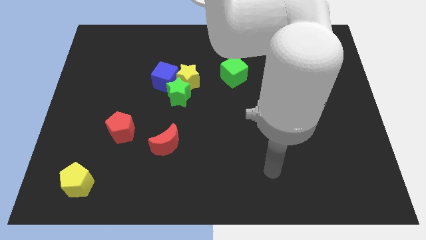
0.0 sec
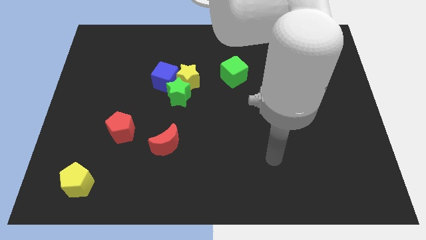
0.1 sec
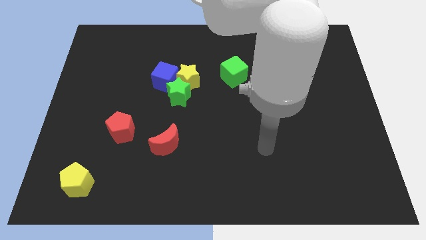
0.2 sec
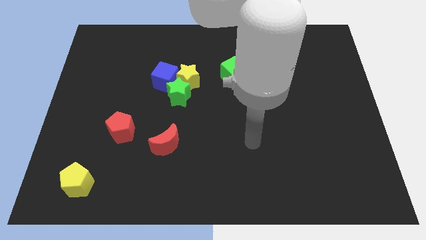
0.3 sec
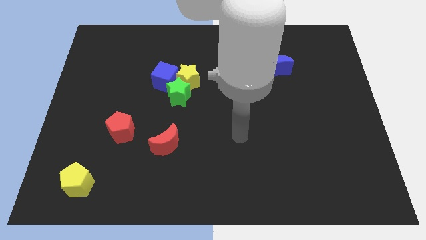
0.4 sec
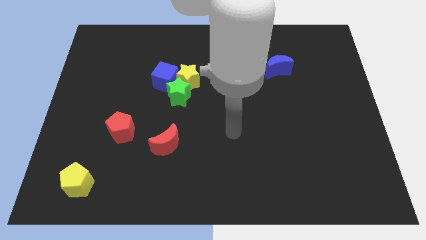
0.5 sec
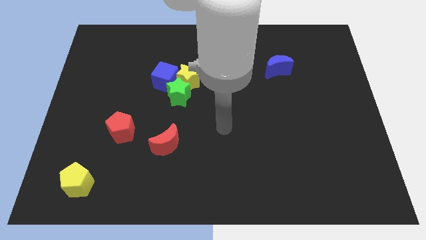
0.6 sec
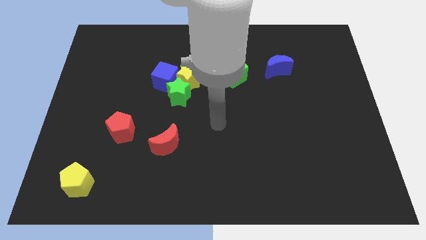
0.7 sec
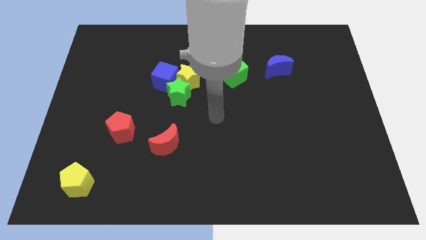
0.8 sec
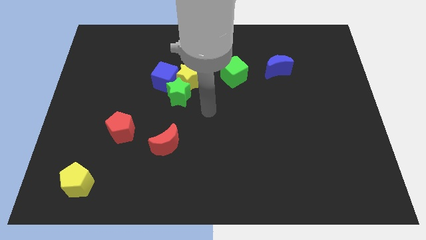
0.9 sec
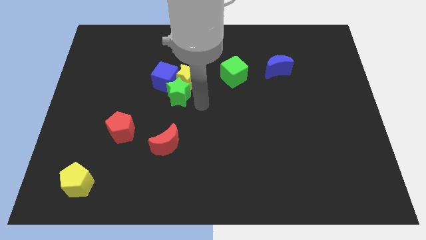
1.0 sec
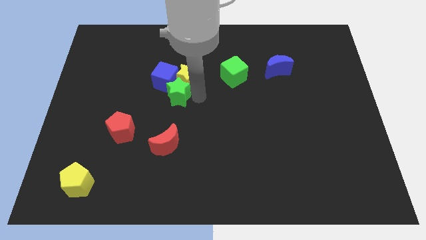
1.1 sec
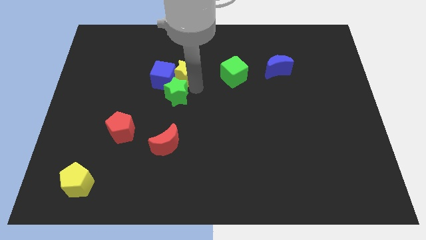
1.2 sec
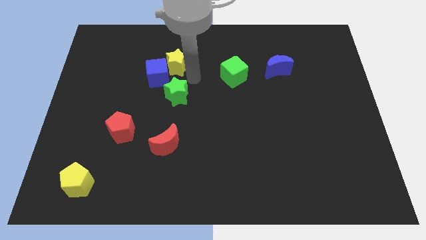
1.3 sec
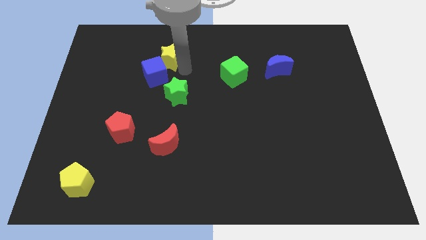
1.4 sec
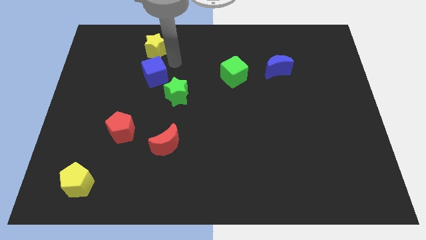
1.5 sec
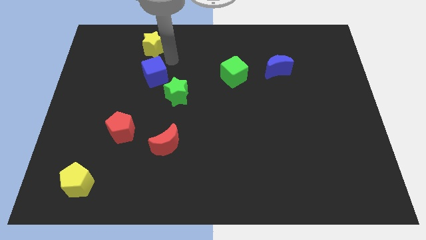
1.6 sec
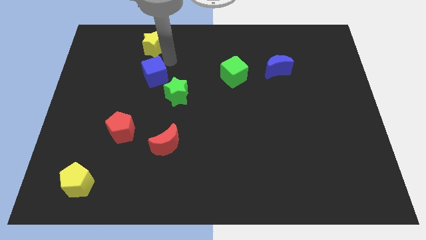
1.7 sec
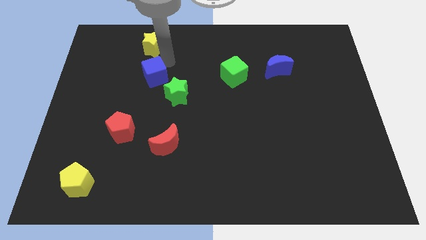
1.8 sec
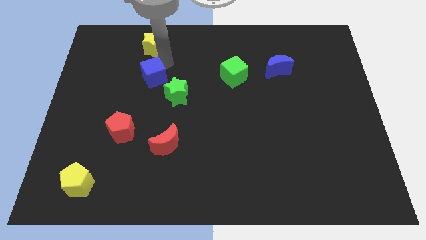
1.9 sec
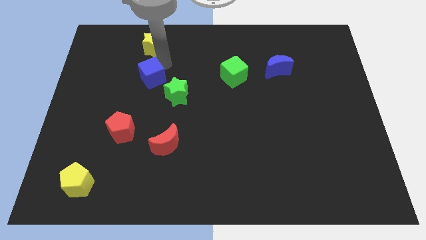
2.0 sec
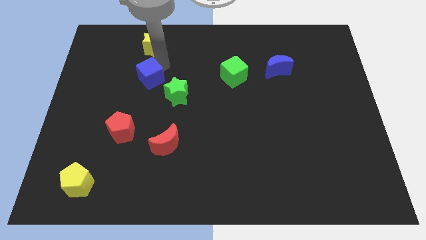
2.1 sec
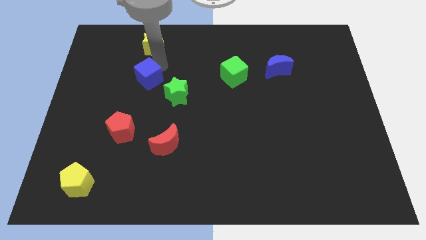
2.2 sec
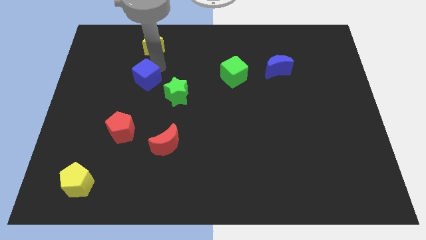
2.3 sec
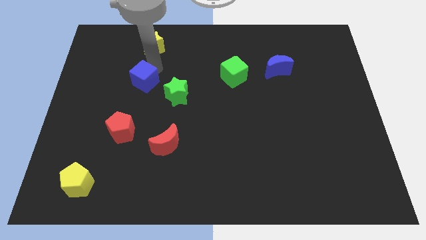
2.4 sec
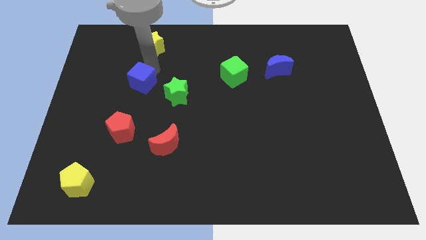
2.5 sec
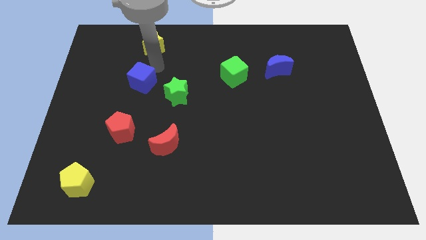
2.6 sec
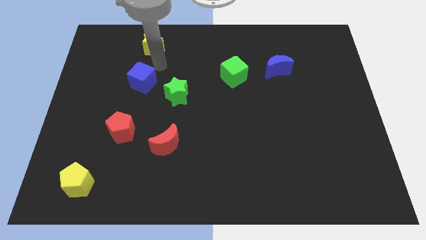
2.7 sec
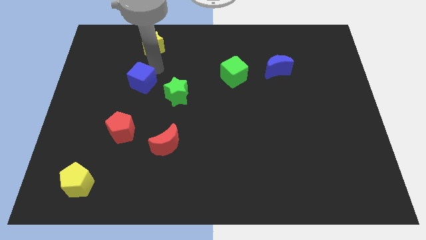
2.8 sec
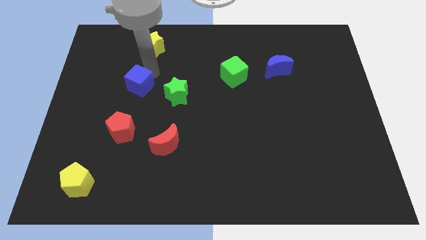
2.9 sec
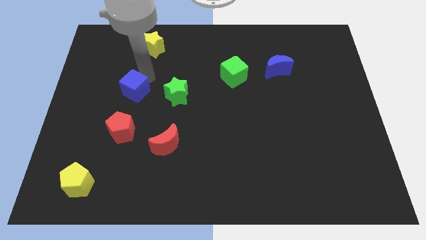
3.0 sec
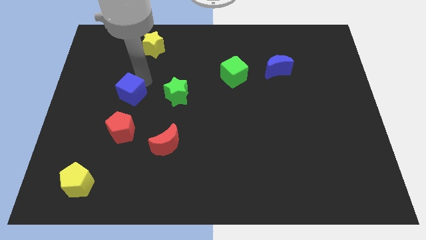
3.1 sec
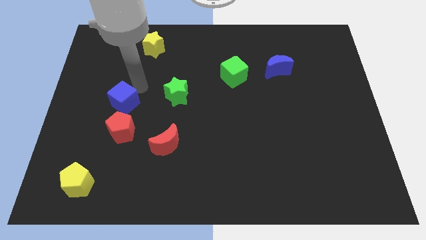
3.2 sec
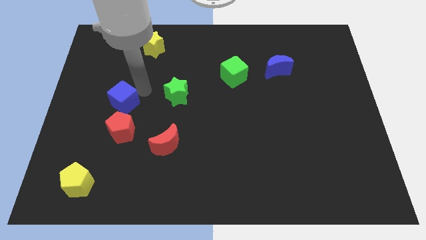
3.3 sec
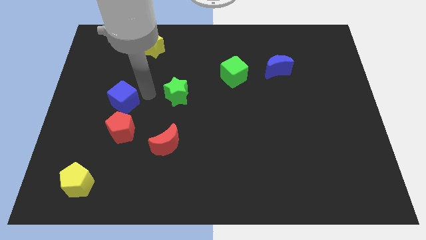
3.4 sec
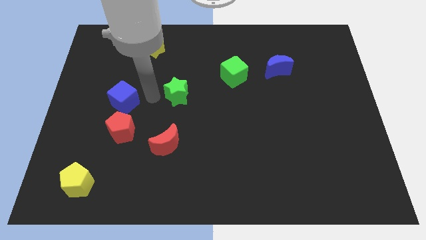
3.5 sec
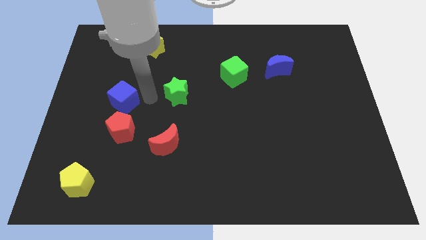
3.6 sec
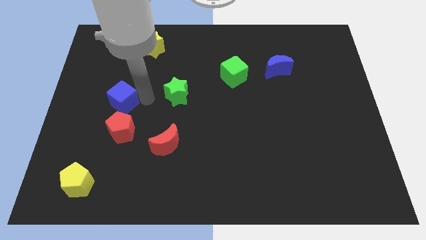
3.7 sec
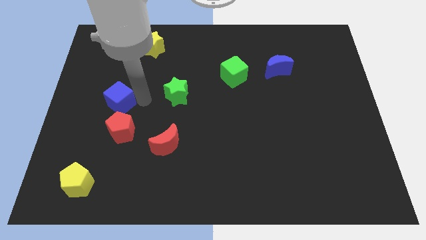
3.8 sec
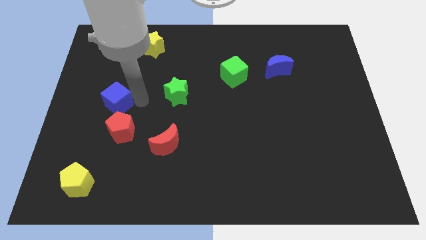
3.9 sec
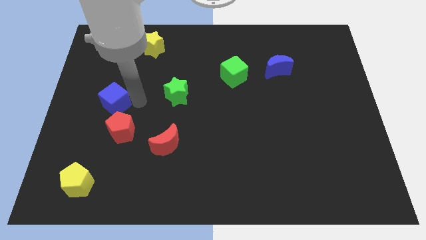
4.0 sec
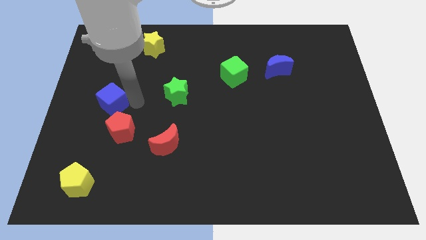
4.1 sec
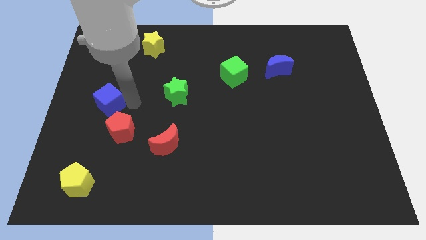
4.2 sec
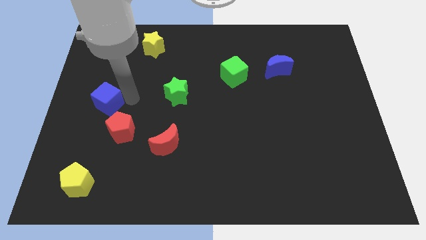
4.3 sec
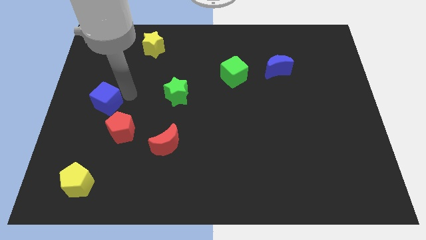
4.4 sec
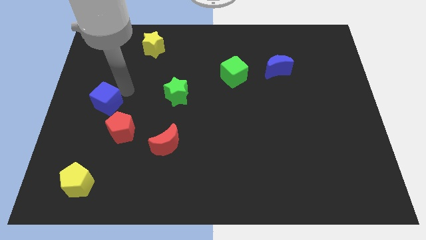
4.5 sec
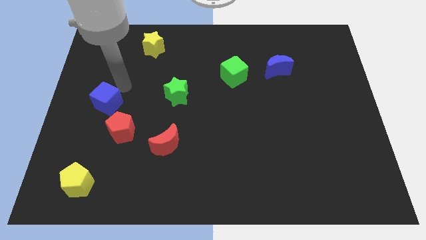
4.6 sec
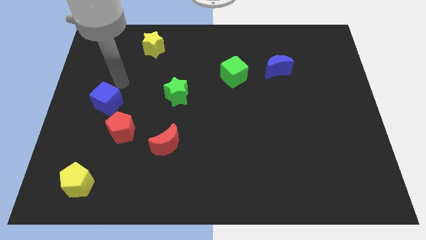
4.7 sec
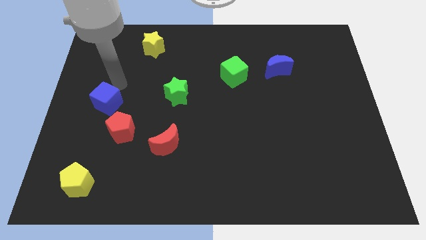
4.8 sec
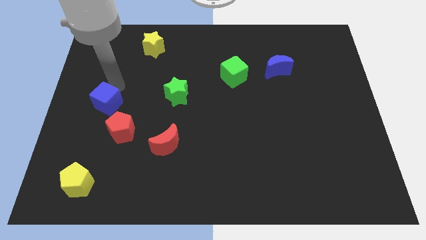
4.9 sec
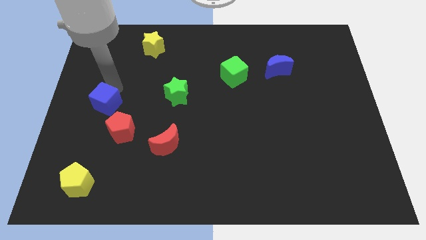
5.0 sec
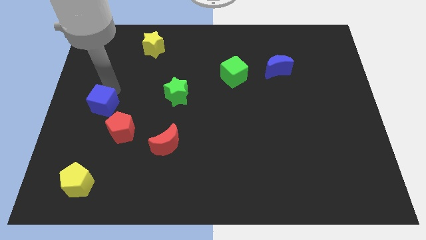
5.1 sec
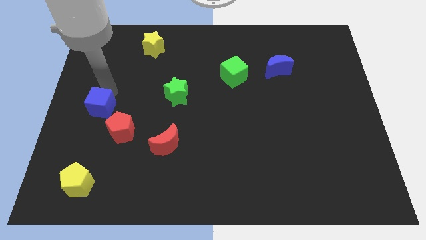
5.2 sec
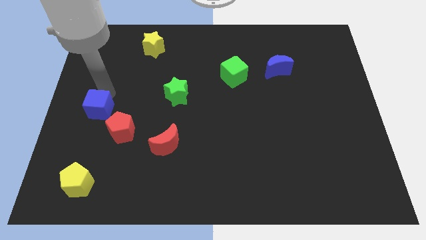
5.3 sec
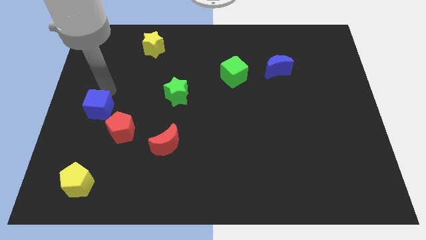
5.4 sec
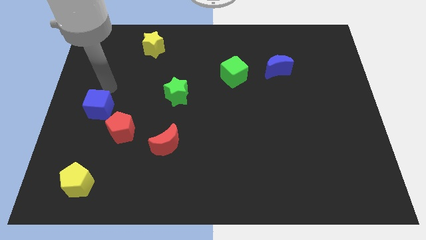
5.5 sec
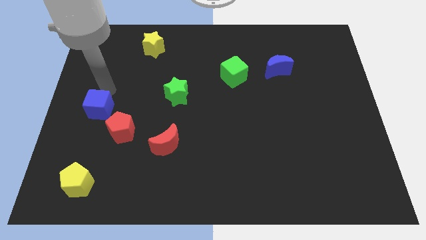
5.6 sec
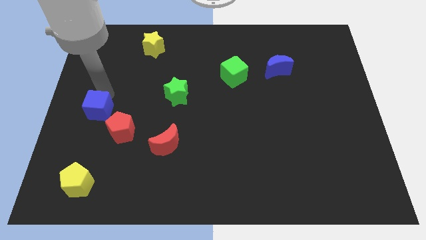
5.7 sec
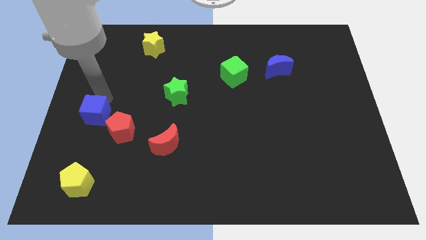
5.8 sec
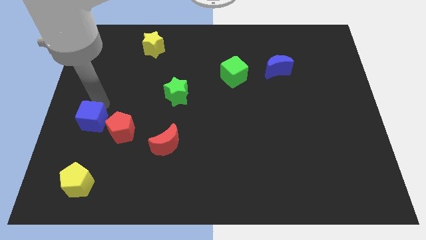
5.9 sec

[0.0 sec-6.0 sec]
move the blue cube to the top side of the yellow pentagon

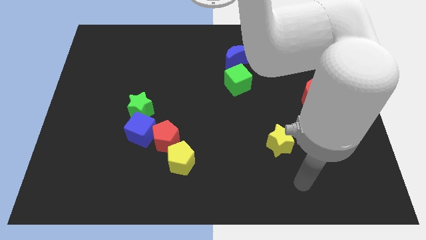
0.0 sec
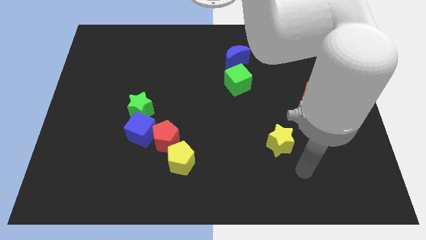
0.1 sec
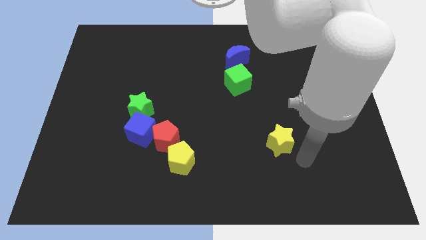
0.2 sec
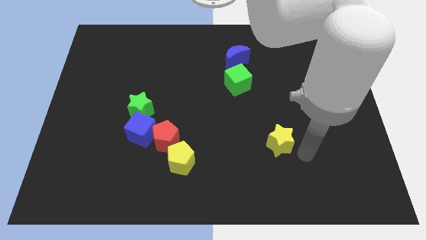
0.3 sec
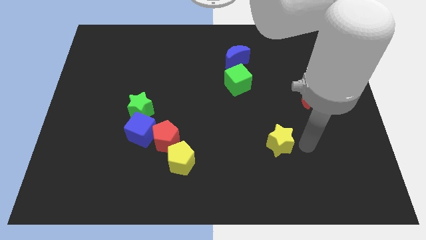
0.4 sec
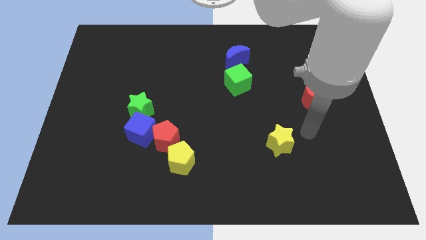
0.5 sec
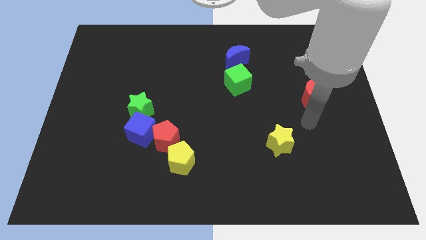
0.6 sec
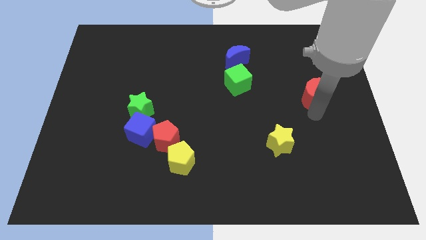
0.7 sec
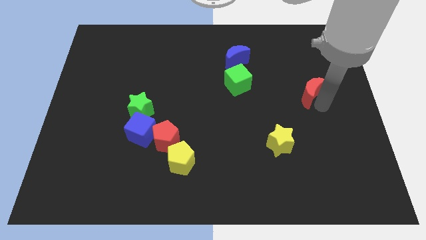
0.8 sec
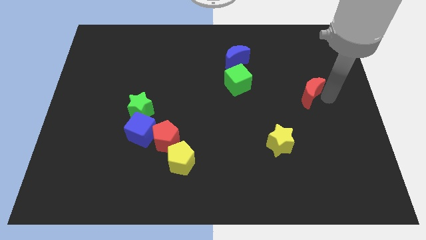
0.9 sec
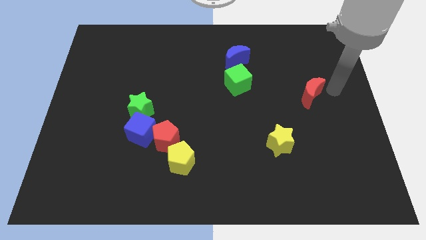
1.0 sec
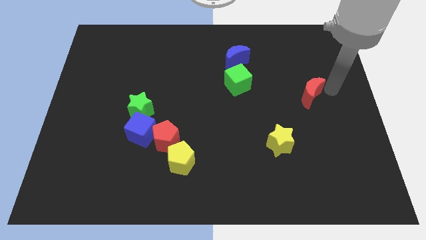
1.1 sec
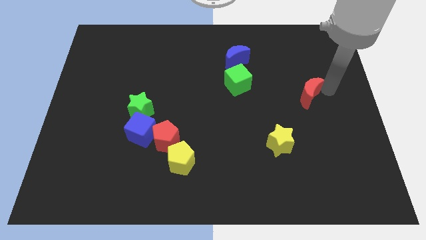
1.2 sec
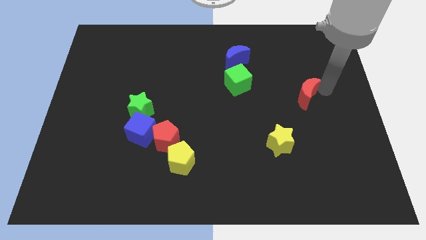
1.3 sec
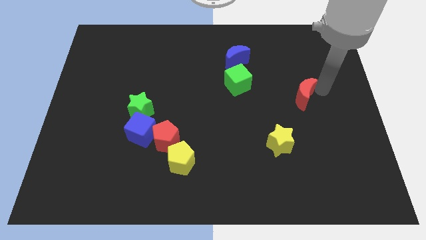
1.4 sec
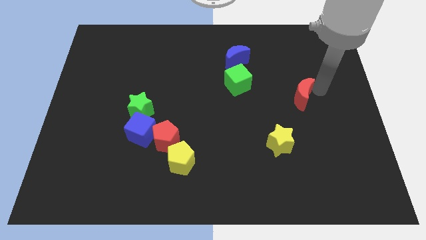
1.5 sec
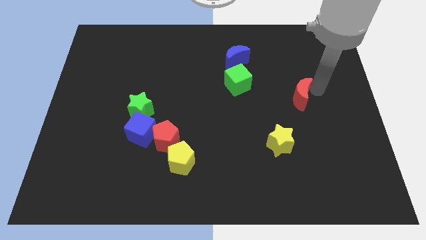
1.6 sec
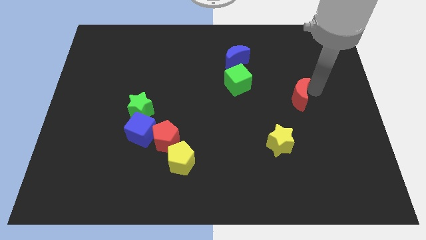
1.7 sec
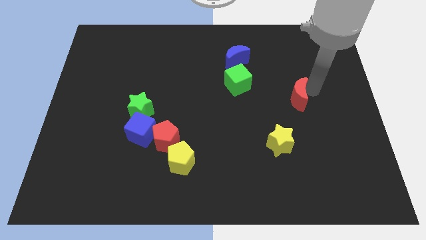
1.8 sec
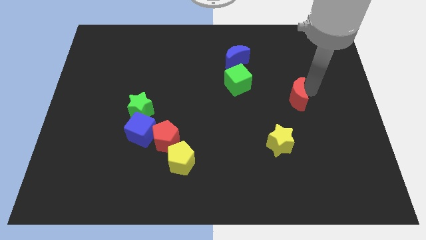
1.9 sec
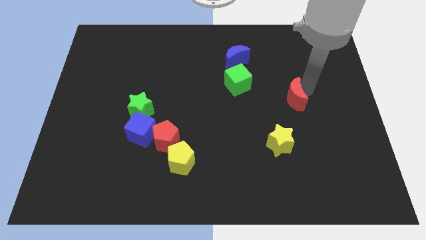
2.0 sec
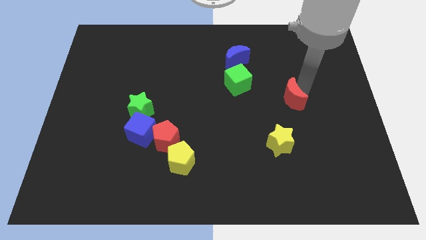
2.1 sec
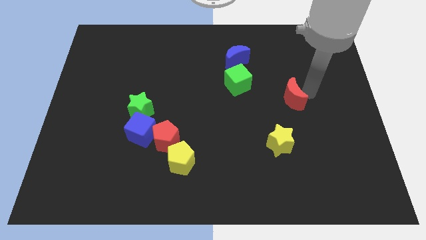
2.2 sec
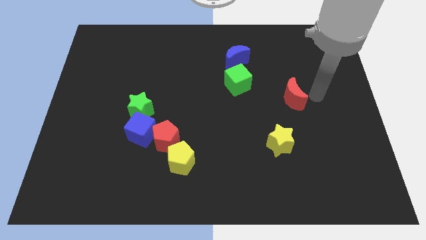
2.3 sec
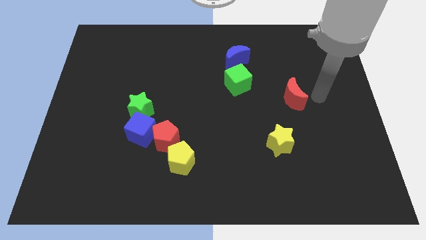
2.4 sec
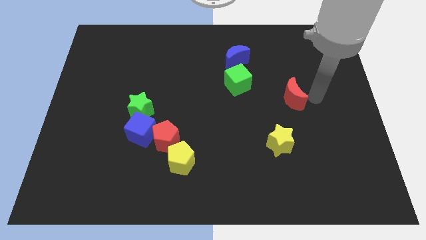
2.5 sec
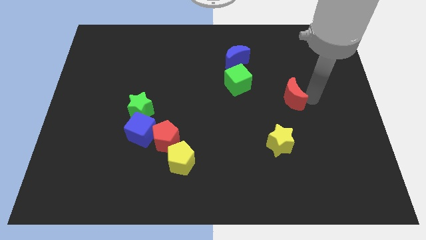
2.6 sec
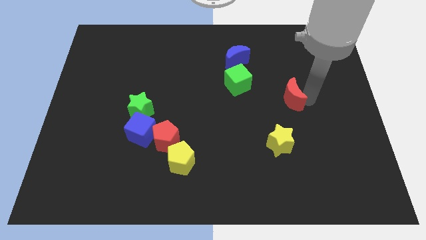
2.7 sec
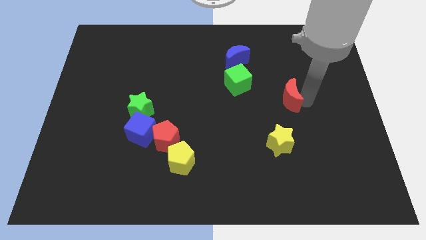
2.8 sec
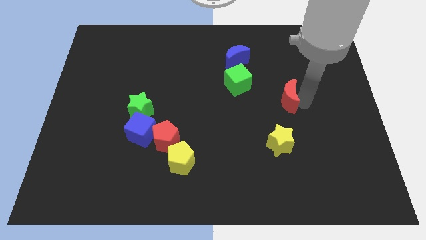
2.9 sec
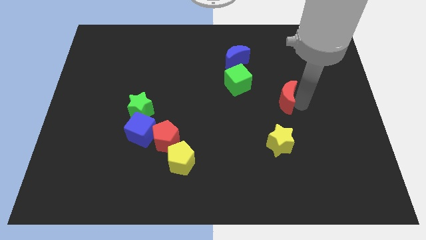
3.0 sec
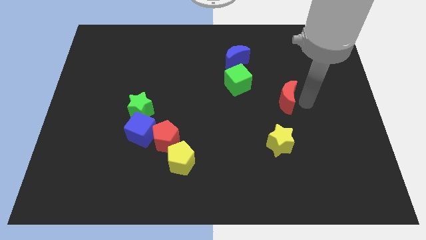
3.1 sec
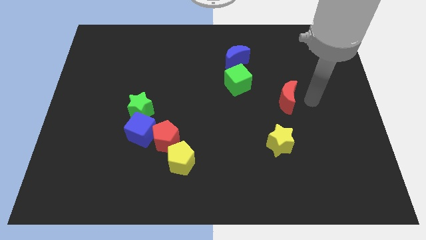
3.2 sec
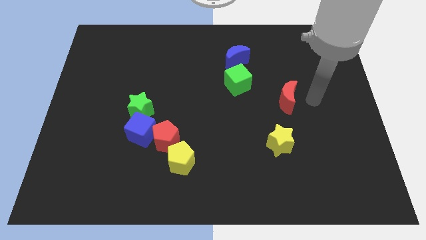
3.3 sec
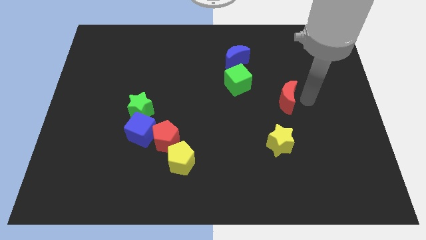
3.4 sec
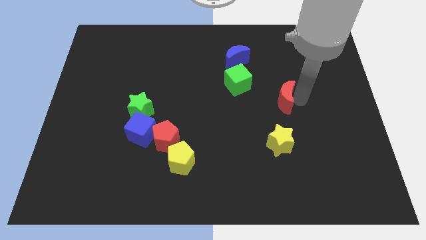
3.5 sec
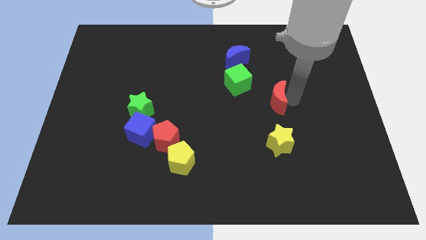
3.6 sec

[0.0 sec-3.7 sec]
put the red moon diagonally down and to the right of the green cube
